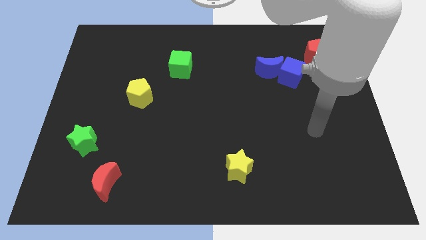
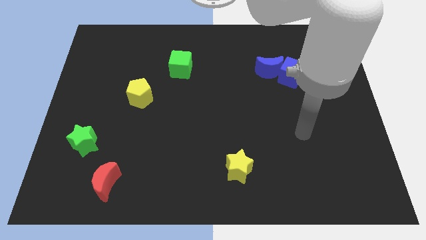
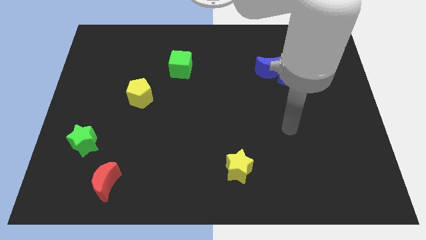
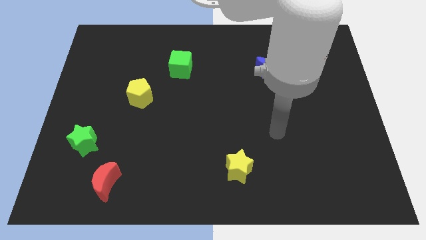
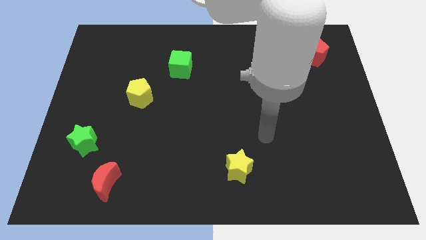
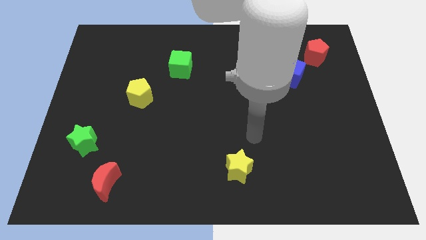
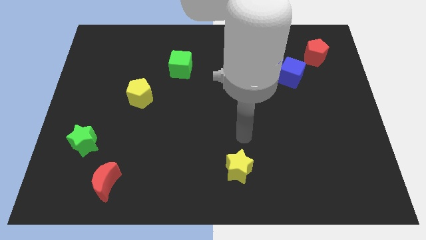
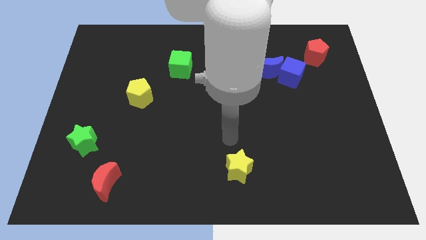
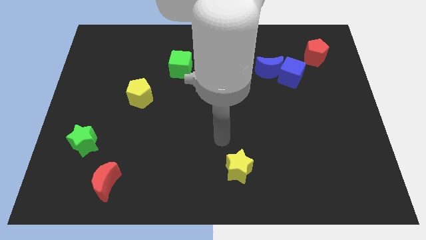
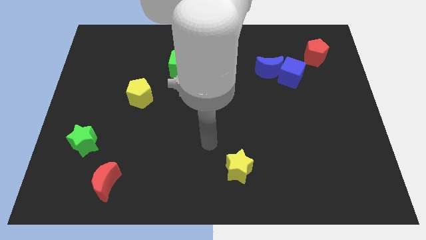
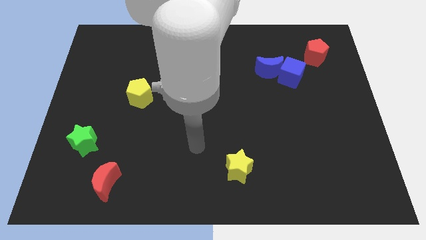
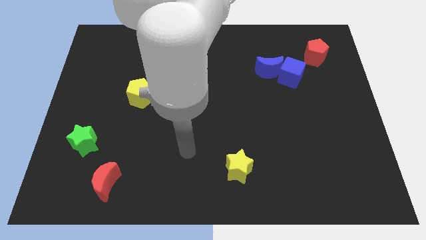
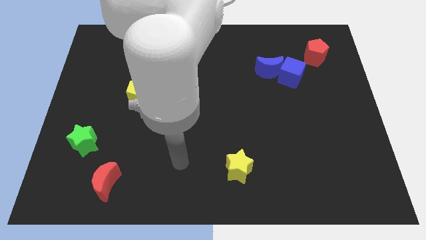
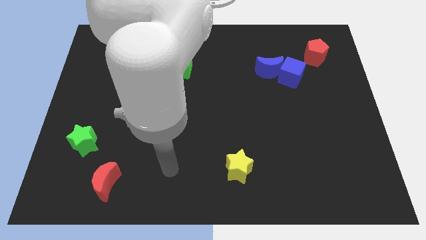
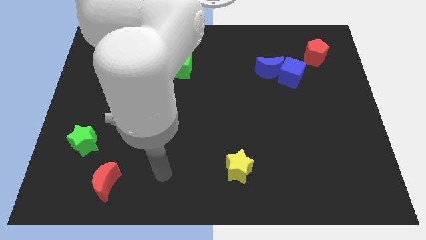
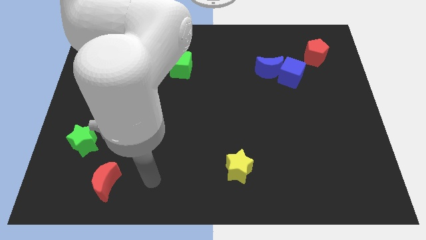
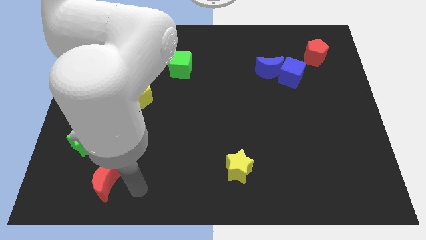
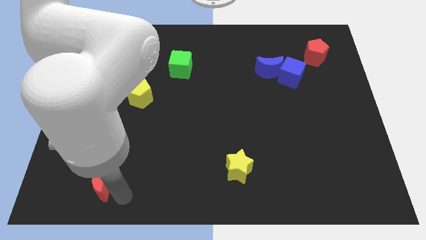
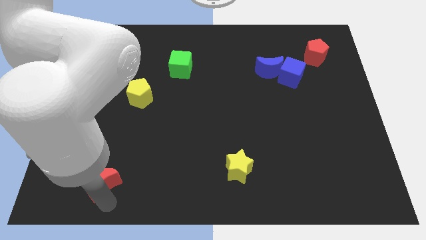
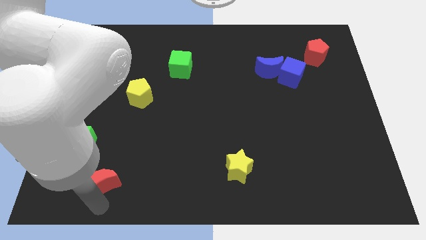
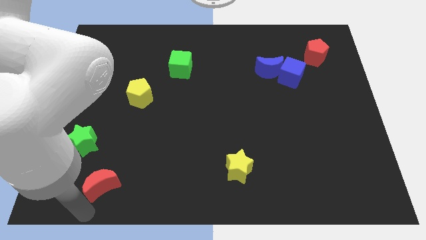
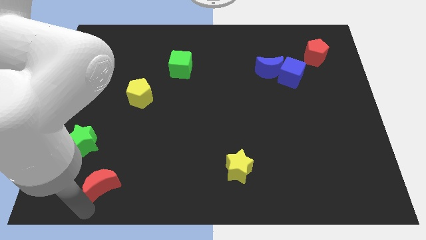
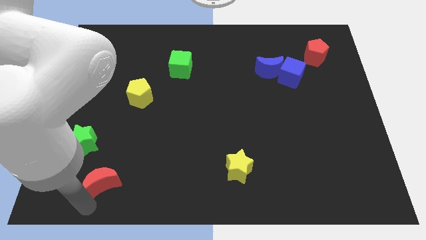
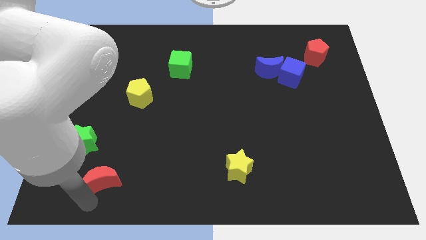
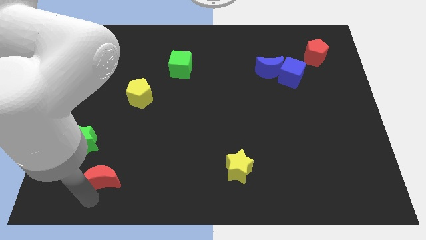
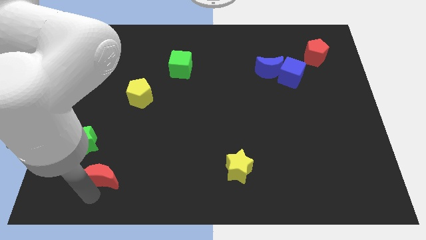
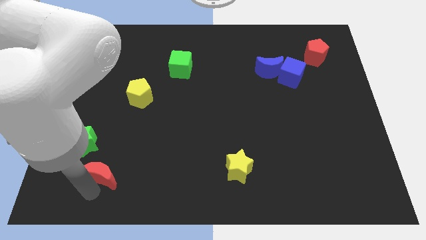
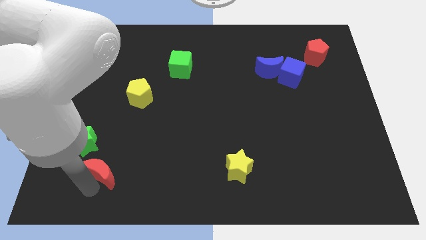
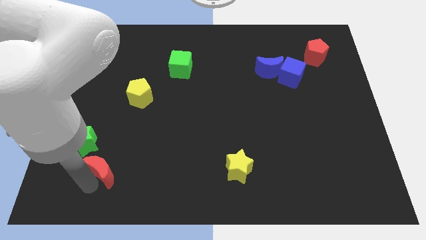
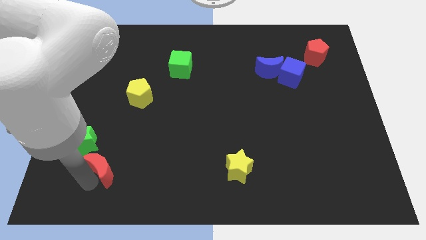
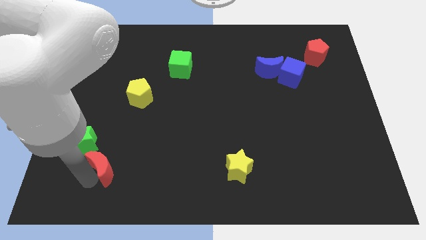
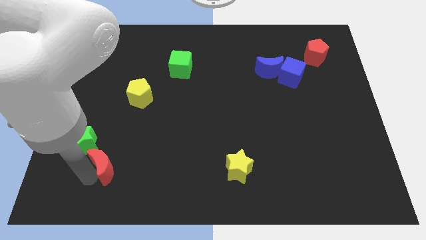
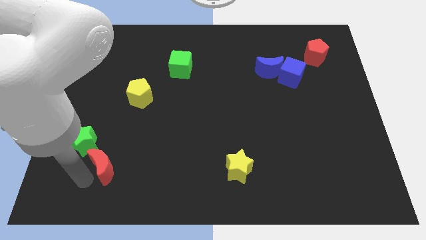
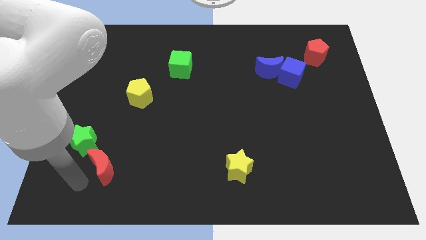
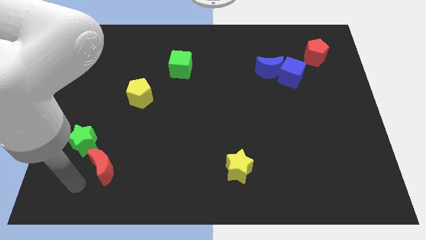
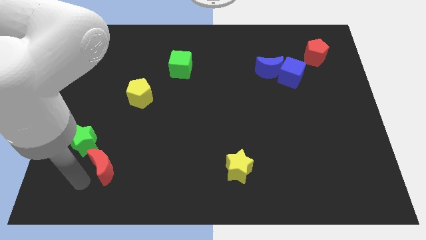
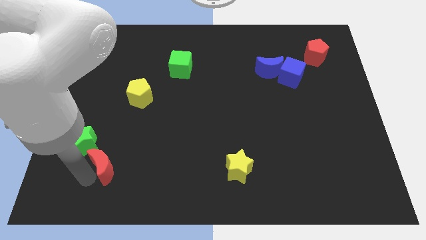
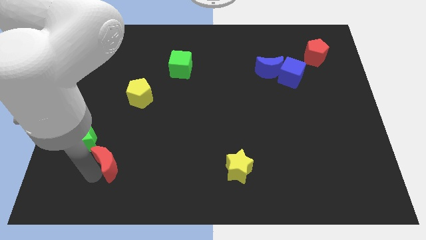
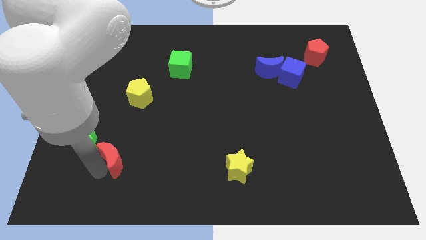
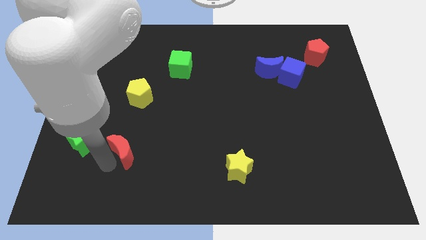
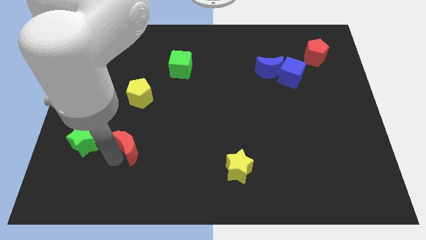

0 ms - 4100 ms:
push the red moon somewhat upwards and then to the right

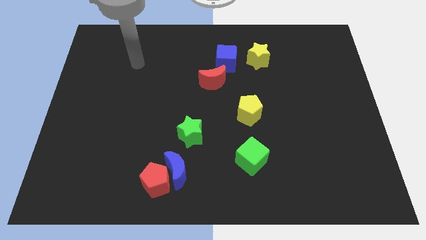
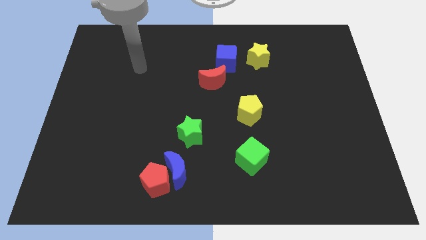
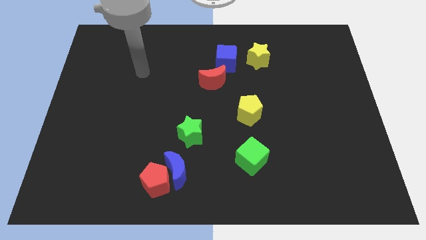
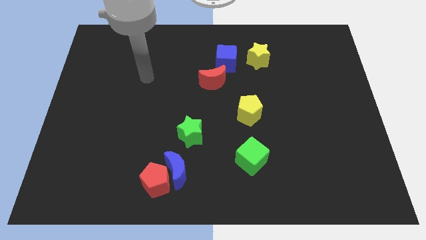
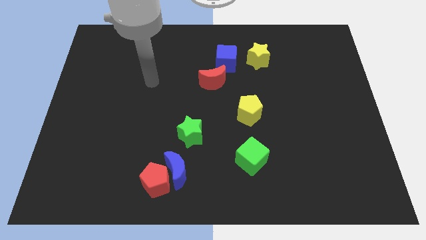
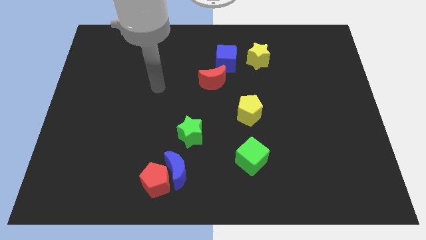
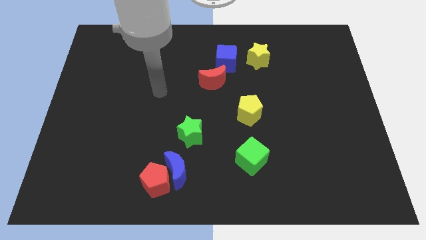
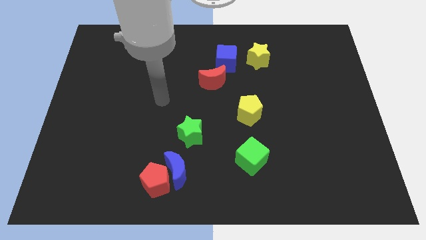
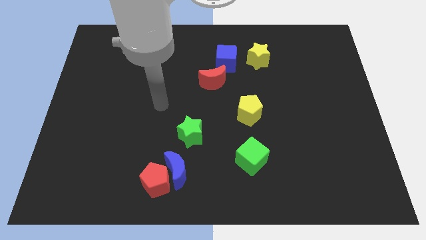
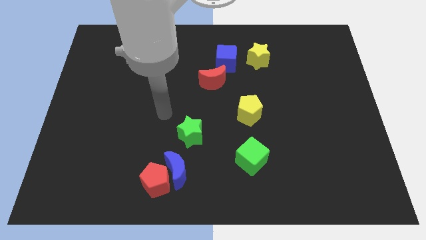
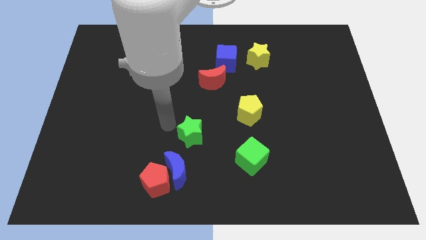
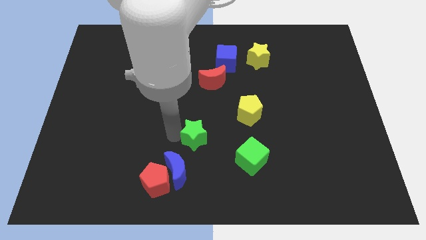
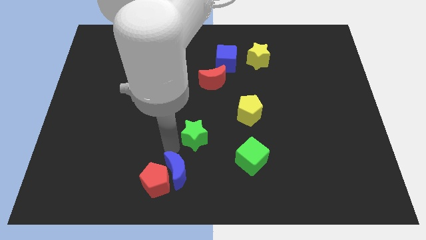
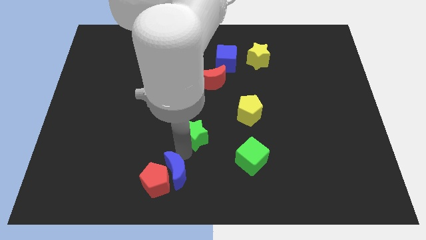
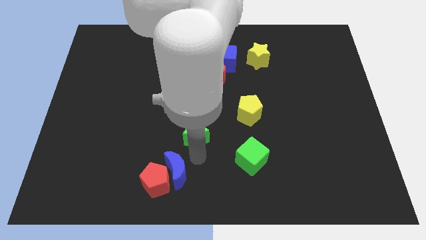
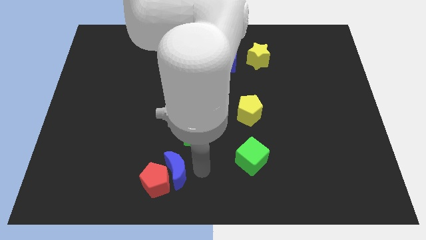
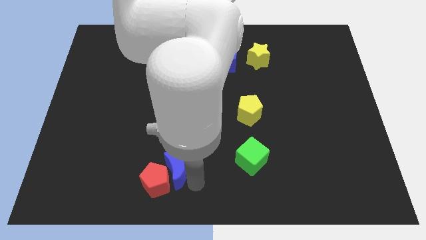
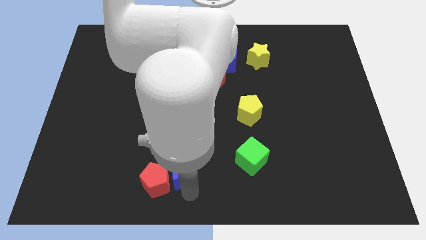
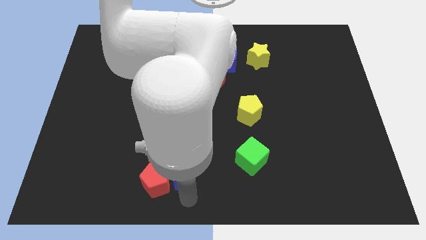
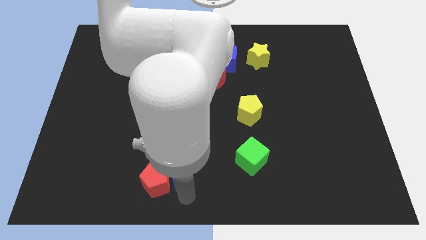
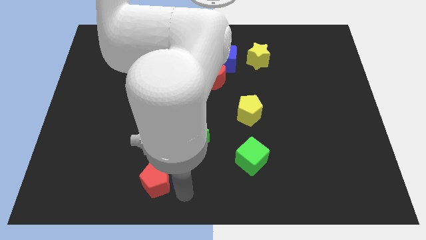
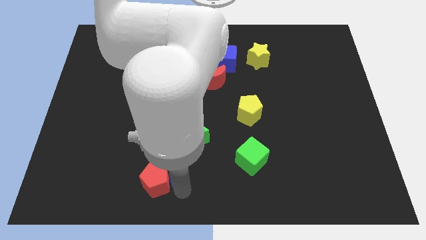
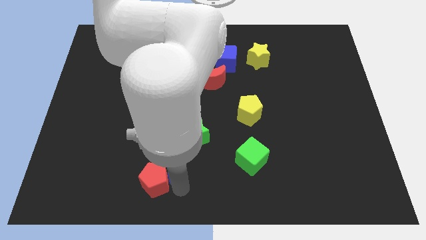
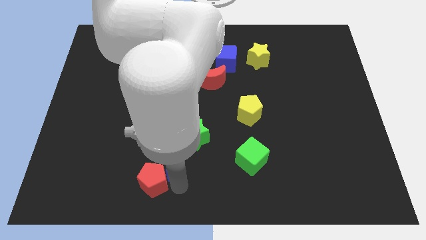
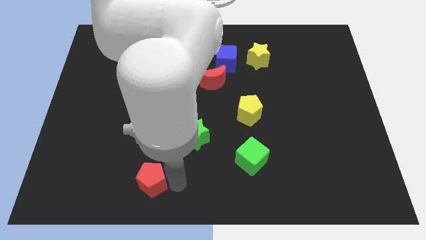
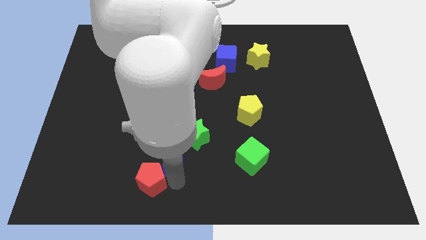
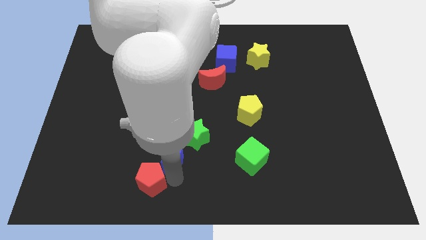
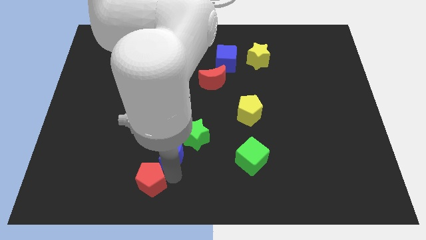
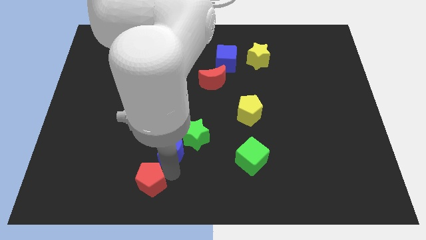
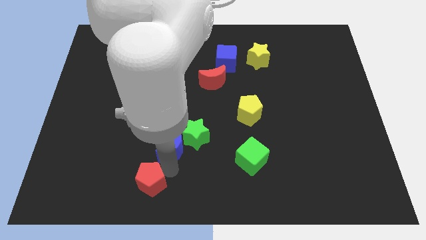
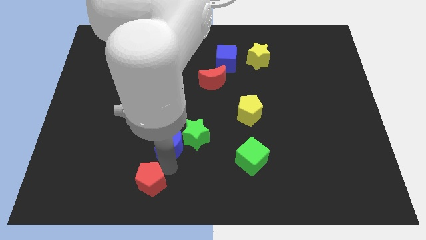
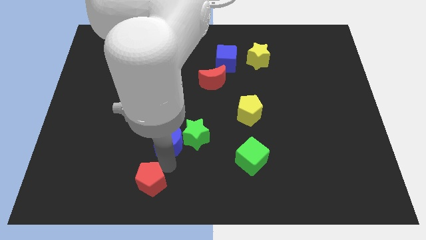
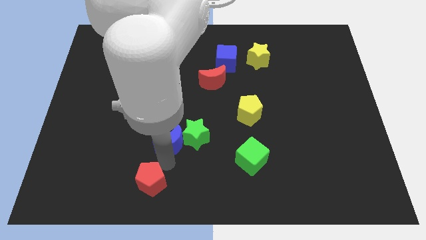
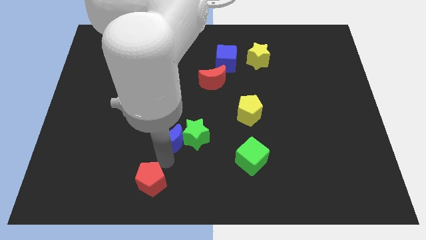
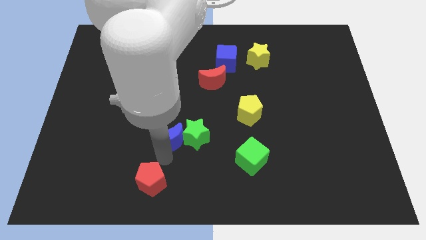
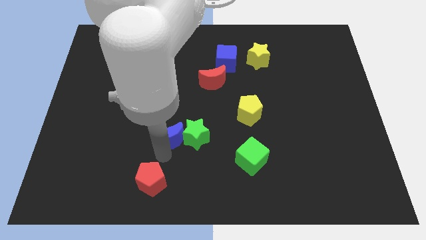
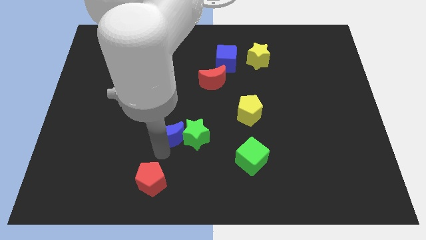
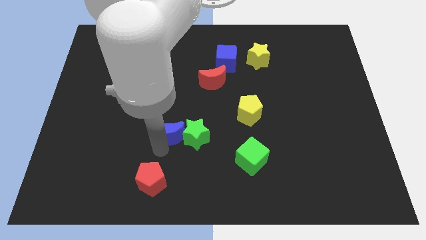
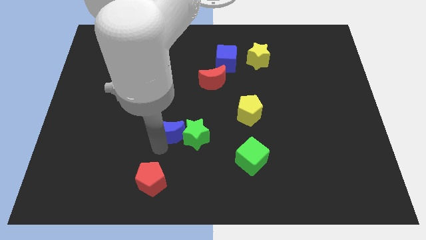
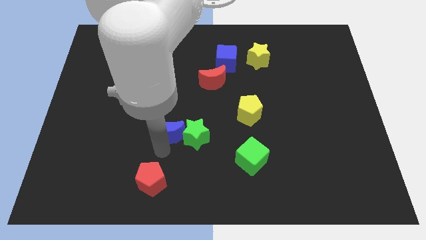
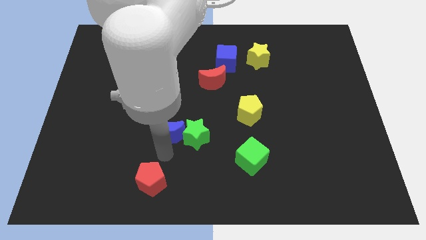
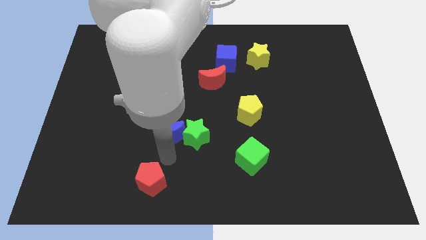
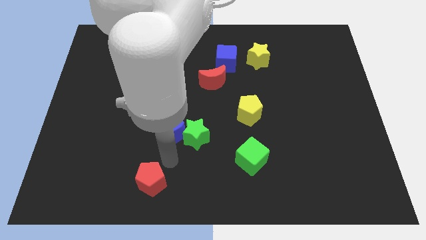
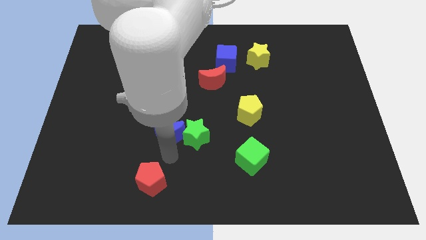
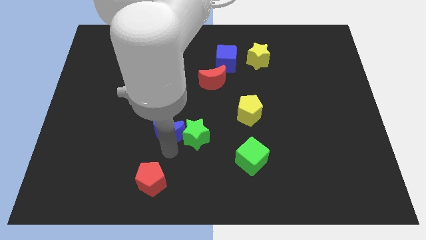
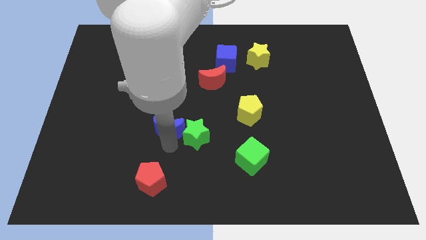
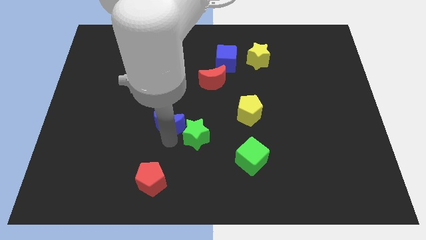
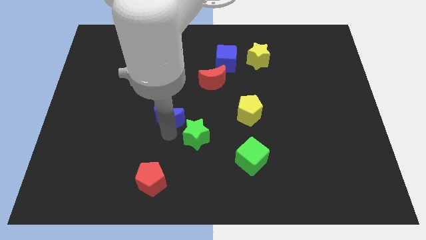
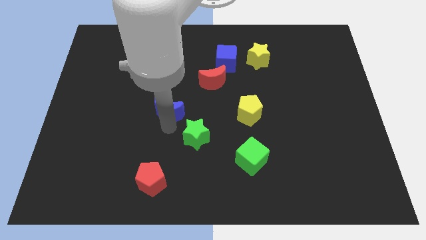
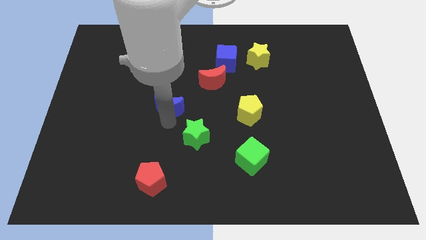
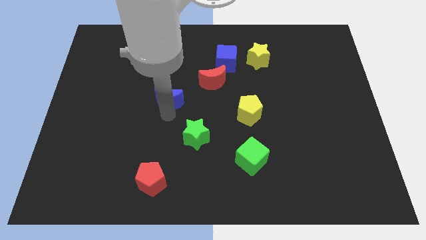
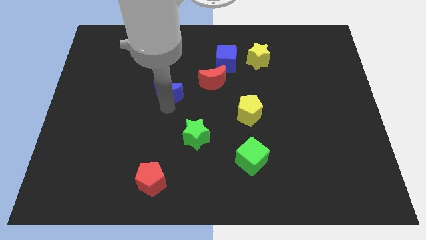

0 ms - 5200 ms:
push the blue moon up
